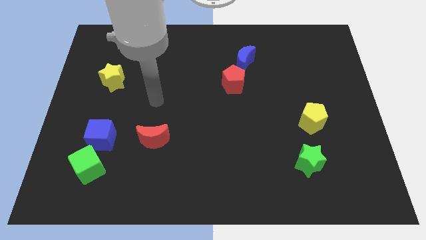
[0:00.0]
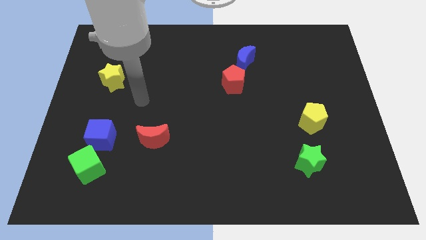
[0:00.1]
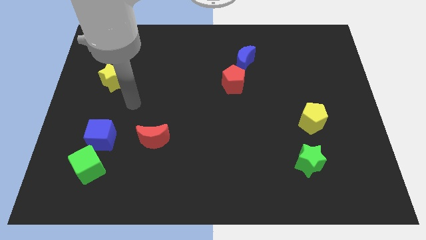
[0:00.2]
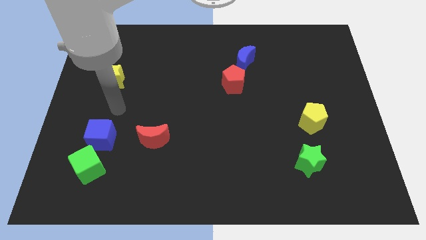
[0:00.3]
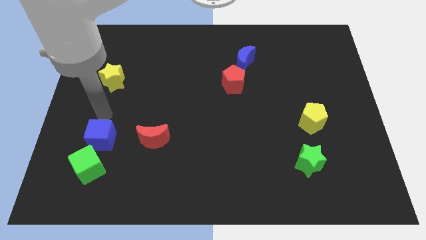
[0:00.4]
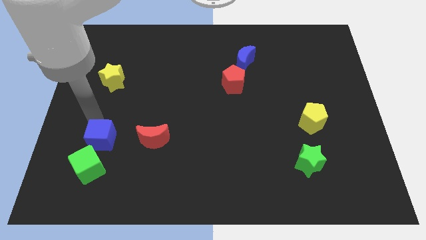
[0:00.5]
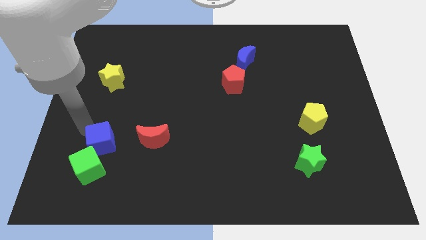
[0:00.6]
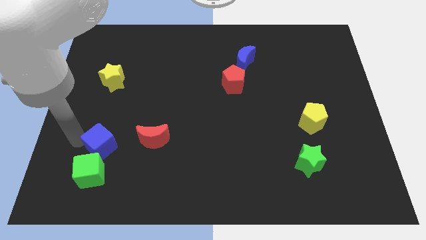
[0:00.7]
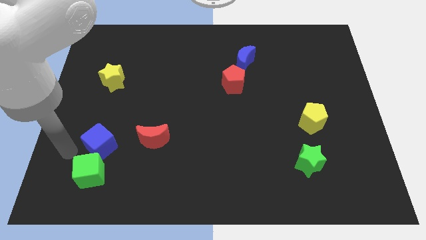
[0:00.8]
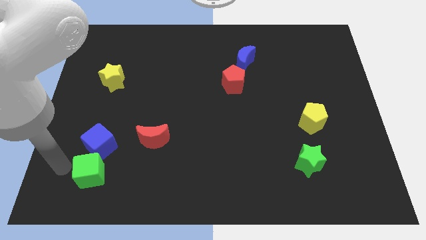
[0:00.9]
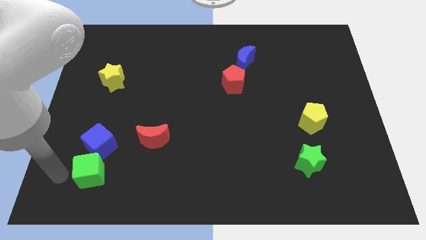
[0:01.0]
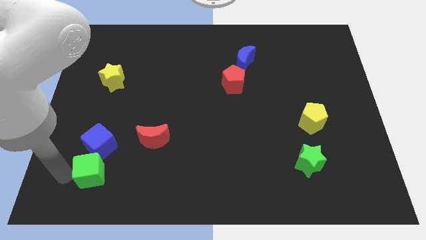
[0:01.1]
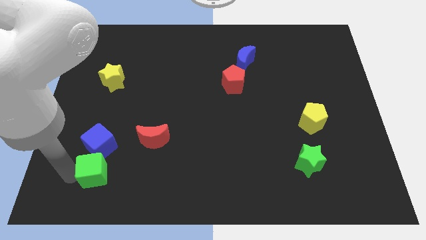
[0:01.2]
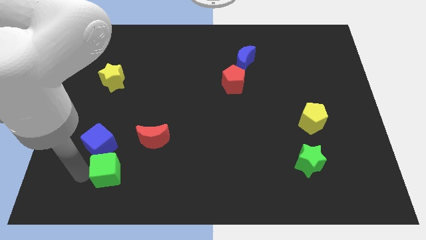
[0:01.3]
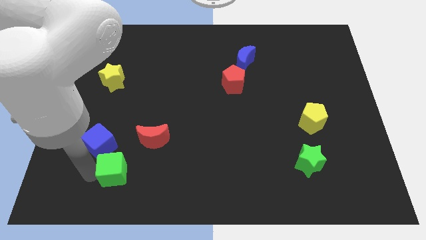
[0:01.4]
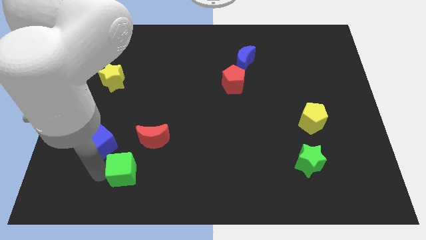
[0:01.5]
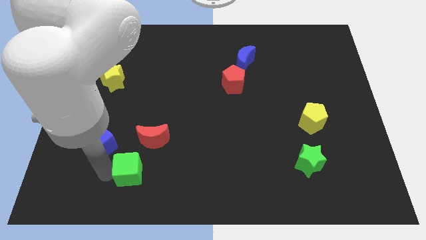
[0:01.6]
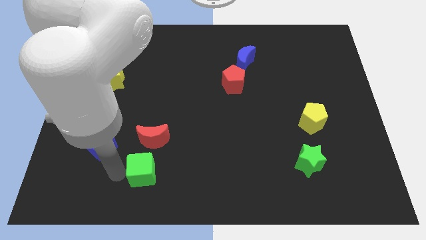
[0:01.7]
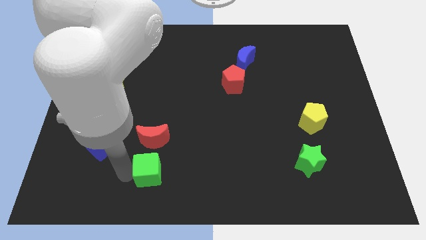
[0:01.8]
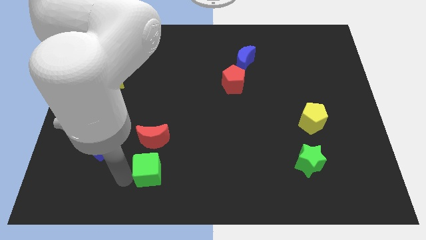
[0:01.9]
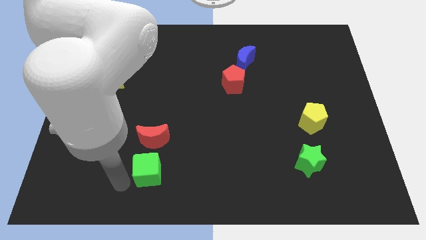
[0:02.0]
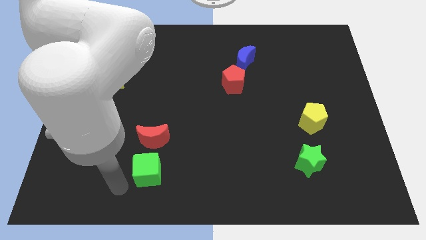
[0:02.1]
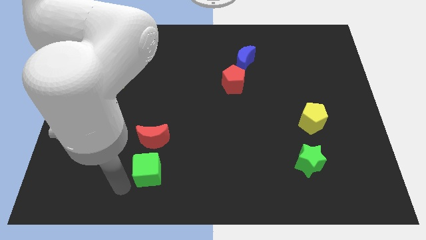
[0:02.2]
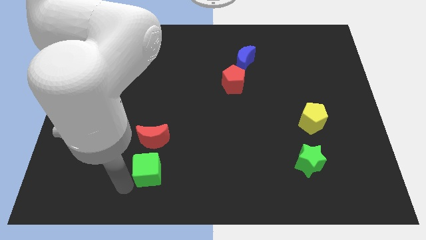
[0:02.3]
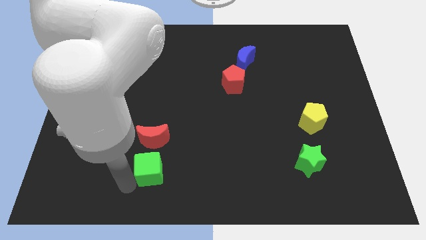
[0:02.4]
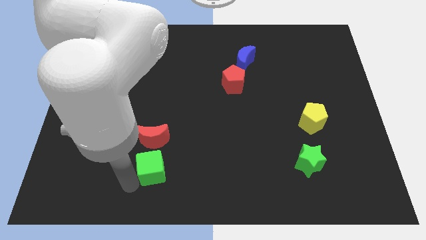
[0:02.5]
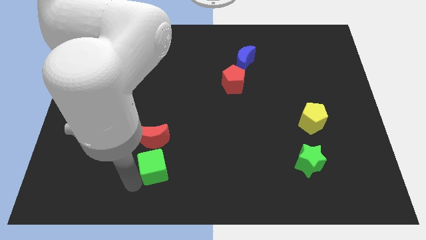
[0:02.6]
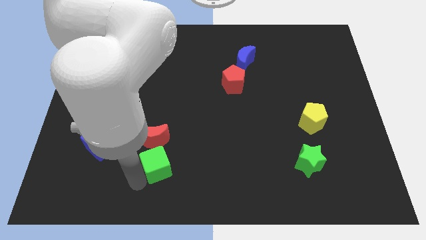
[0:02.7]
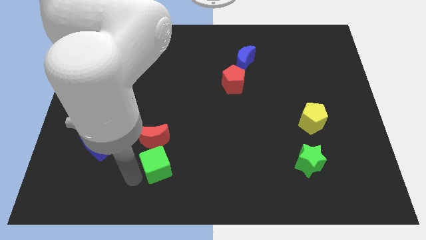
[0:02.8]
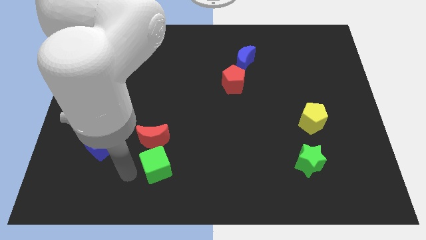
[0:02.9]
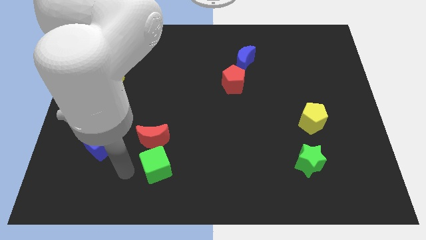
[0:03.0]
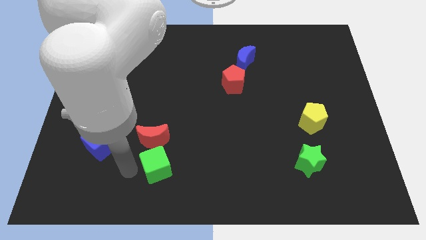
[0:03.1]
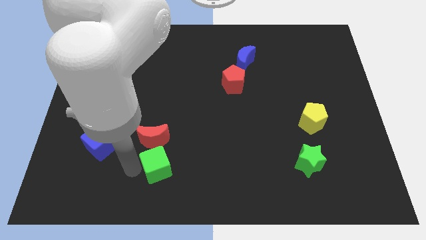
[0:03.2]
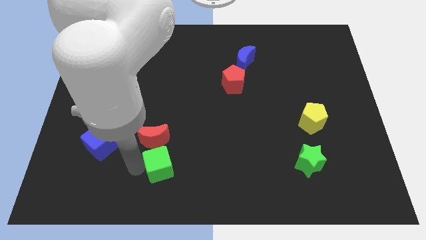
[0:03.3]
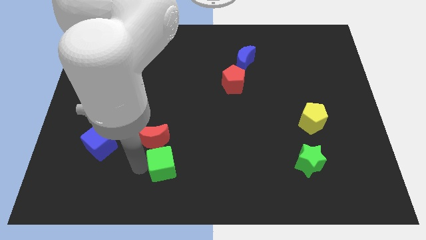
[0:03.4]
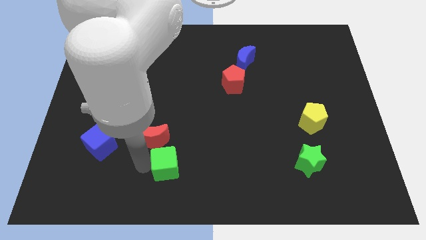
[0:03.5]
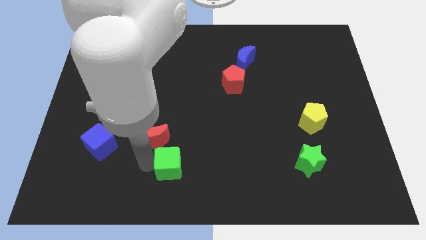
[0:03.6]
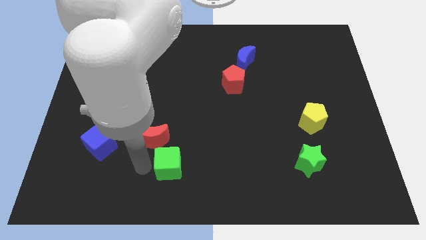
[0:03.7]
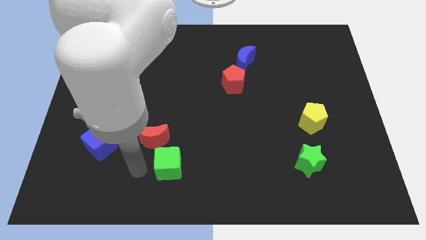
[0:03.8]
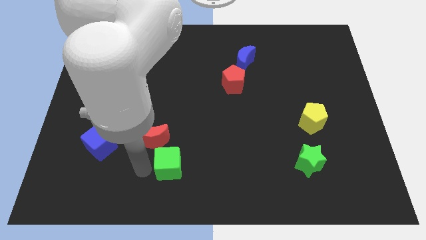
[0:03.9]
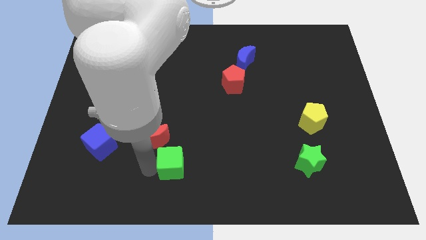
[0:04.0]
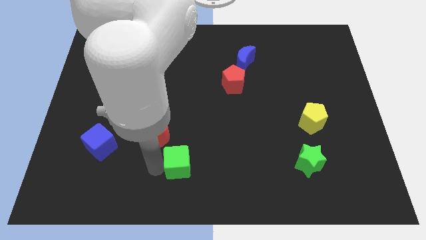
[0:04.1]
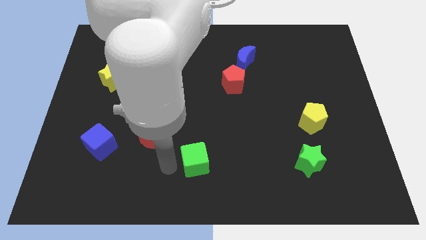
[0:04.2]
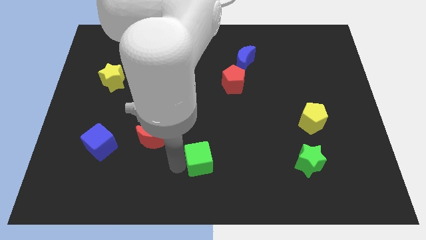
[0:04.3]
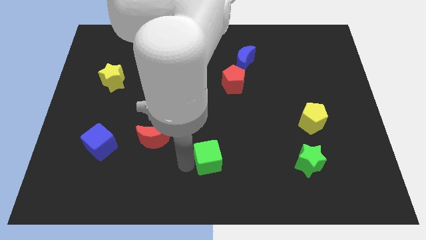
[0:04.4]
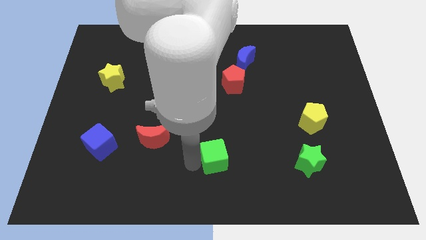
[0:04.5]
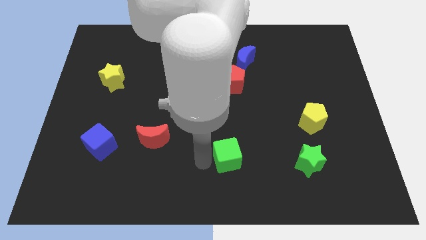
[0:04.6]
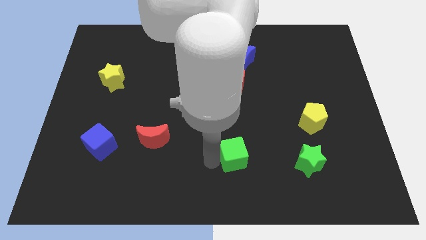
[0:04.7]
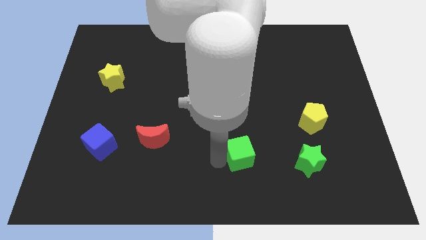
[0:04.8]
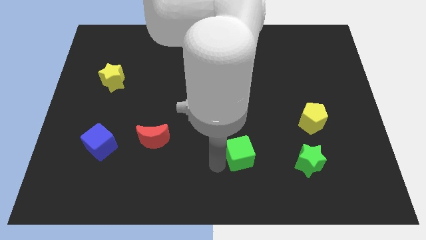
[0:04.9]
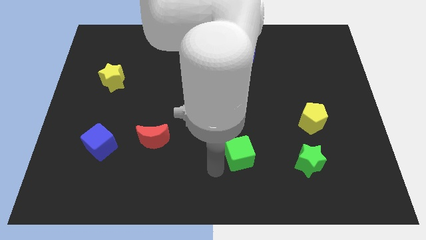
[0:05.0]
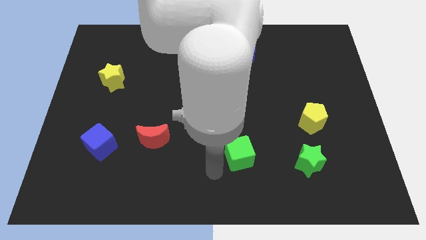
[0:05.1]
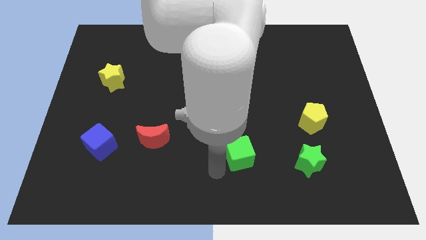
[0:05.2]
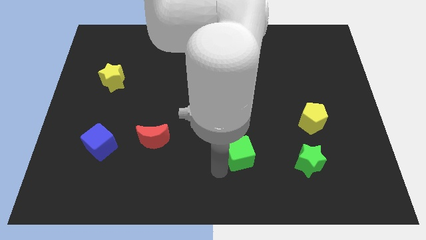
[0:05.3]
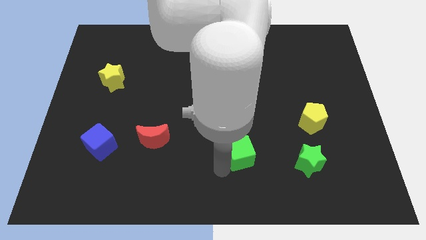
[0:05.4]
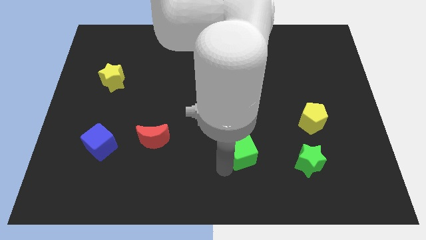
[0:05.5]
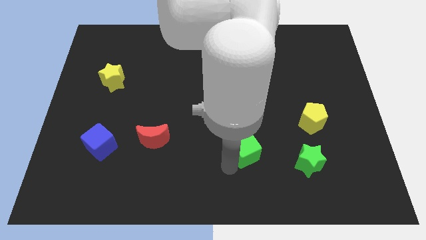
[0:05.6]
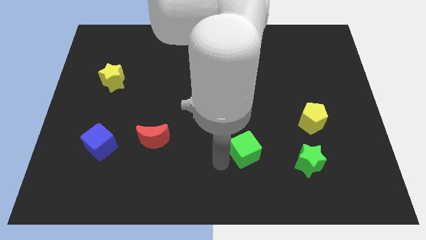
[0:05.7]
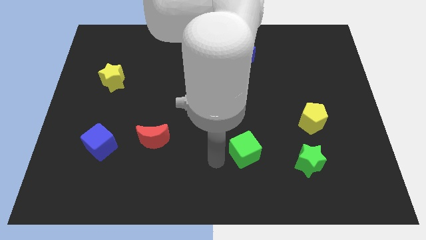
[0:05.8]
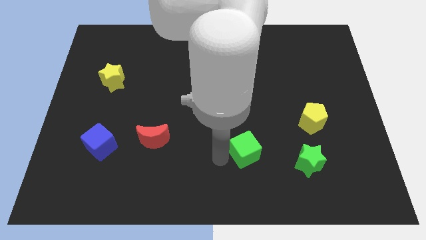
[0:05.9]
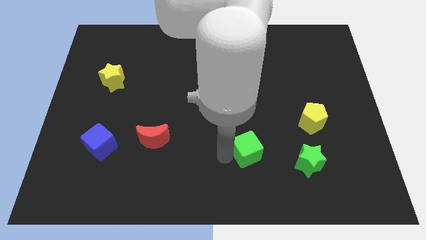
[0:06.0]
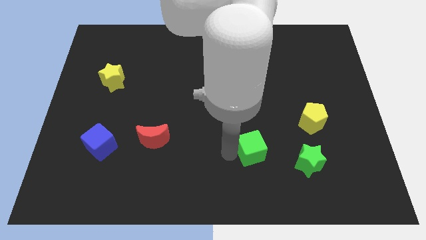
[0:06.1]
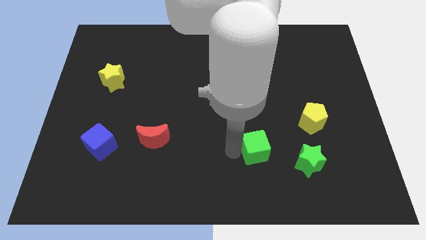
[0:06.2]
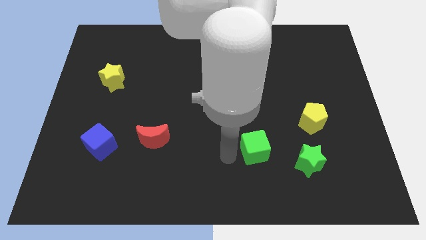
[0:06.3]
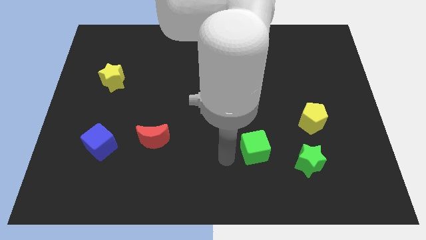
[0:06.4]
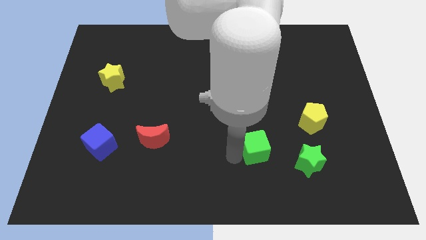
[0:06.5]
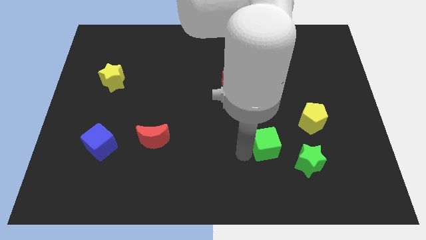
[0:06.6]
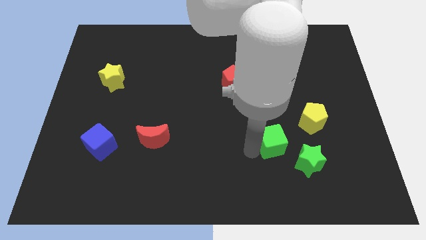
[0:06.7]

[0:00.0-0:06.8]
move the green cube to the bottom left of the yellow pentagon

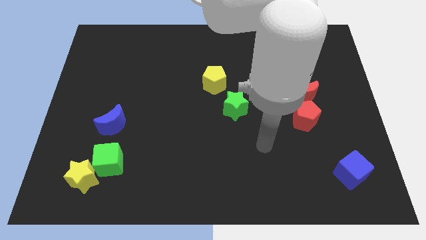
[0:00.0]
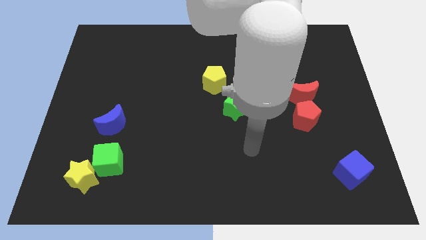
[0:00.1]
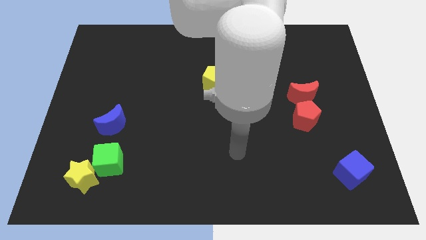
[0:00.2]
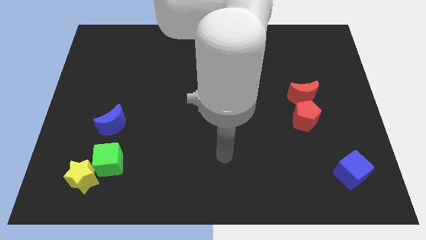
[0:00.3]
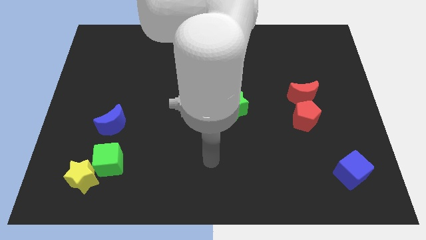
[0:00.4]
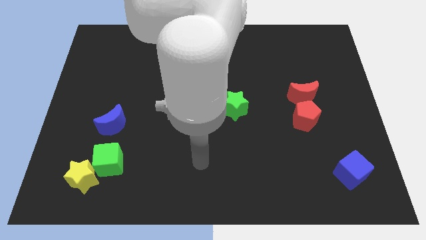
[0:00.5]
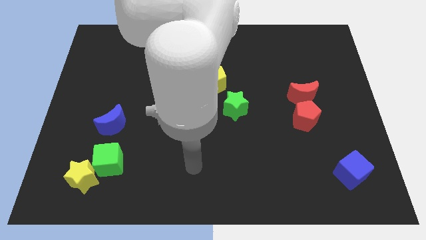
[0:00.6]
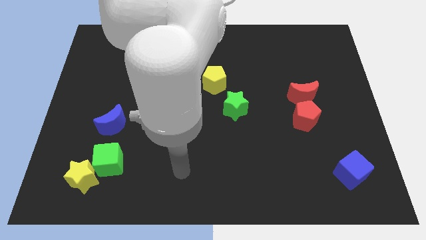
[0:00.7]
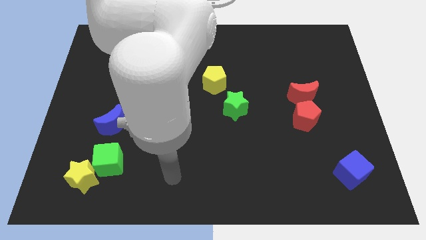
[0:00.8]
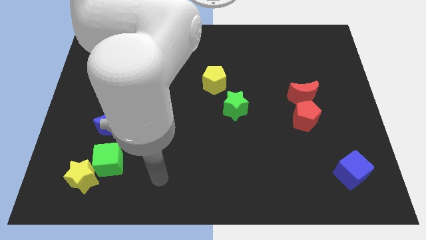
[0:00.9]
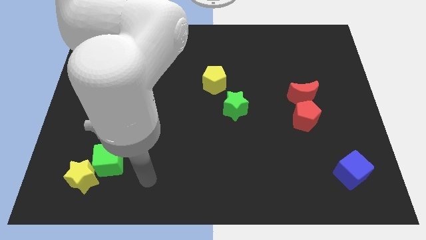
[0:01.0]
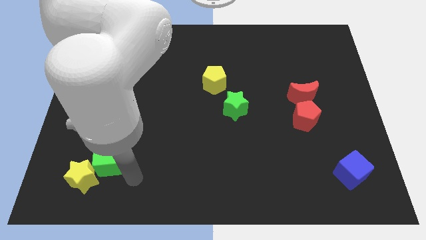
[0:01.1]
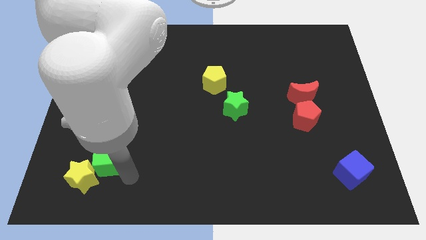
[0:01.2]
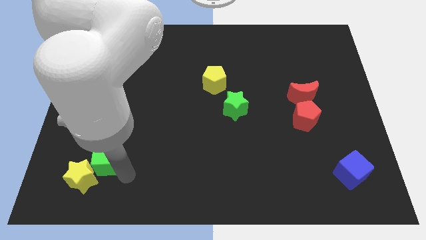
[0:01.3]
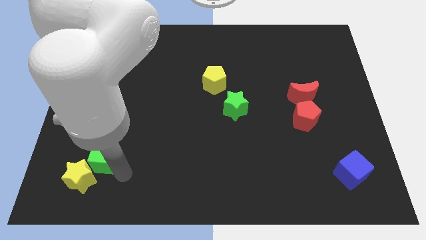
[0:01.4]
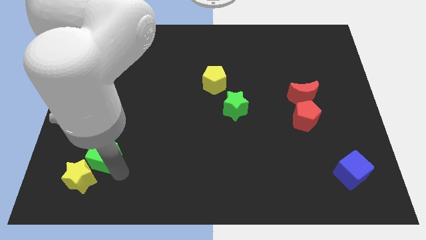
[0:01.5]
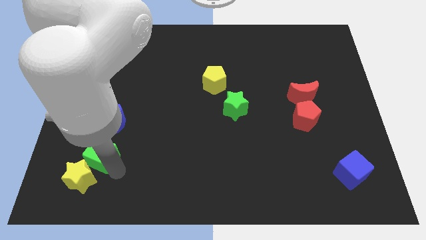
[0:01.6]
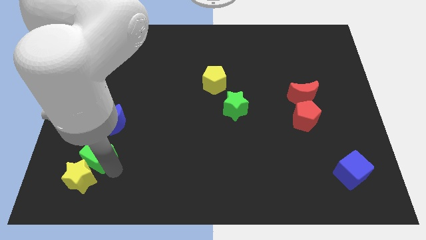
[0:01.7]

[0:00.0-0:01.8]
slide the green cube to the bottom left of the blue moon
